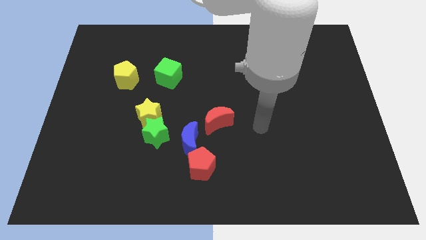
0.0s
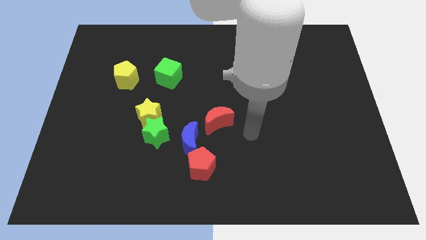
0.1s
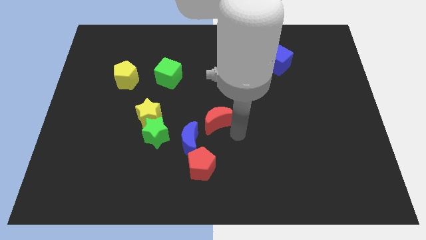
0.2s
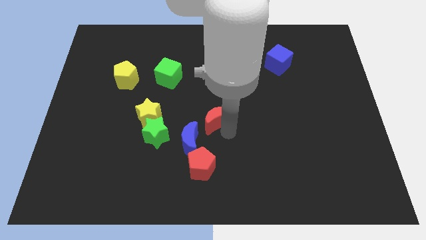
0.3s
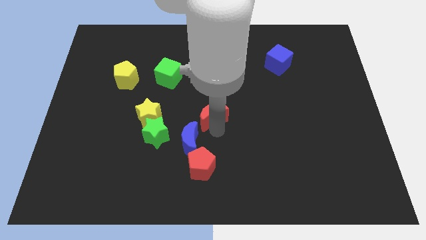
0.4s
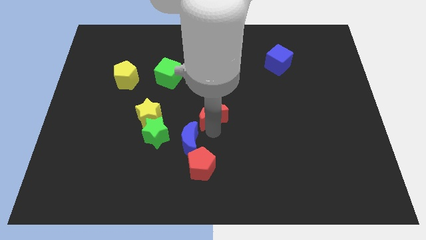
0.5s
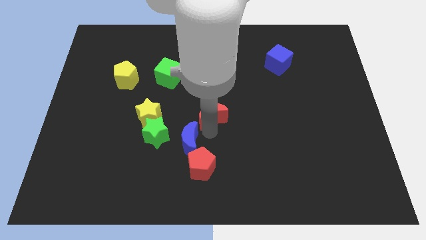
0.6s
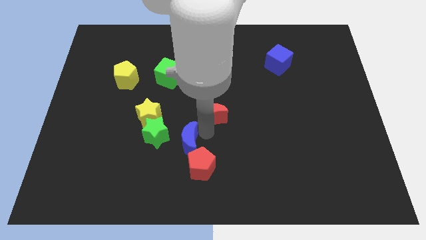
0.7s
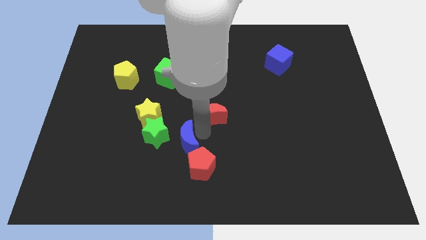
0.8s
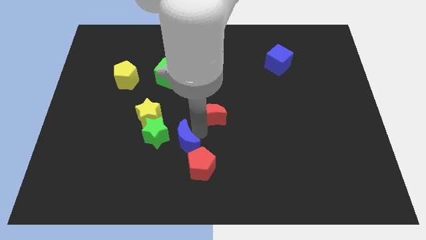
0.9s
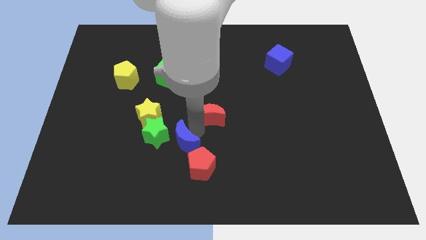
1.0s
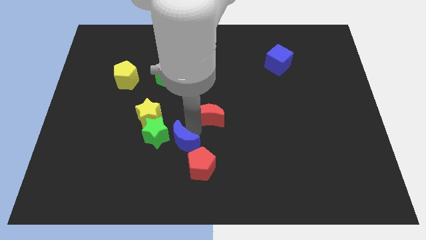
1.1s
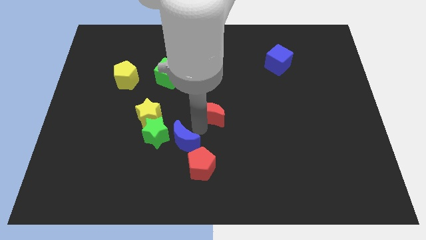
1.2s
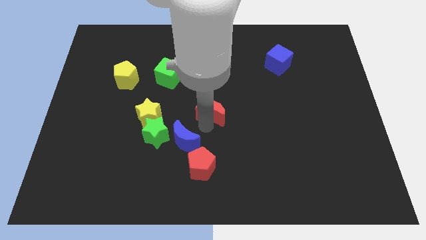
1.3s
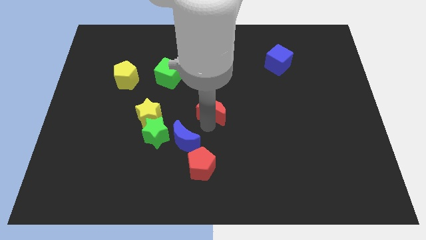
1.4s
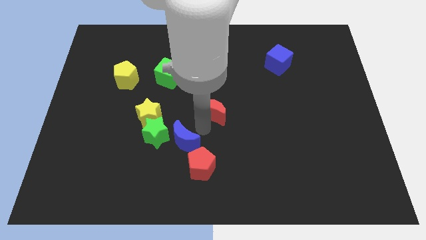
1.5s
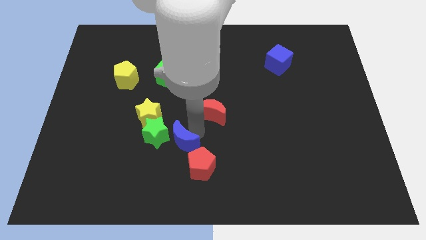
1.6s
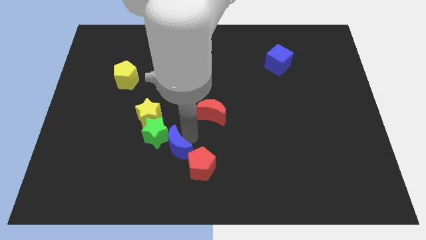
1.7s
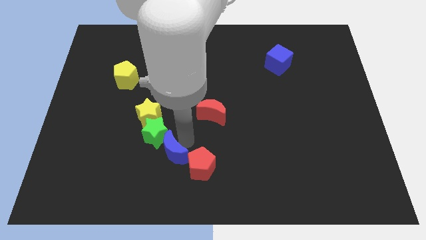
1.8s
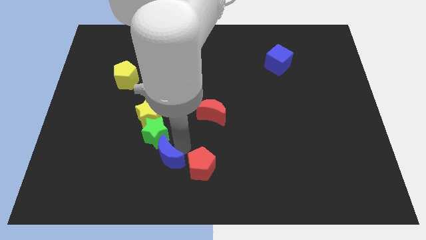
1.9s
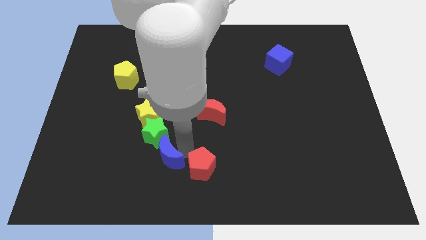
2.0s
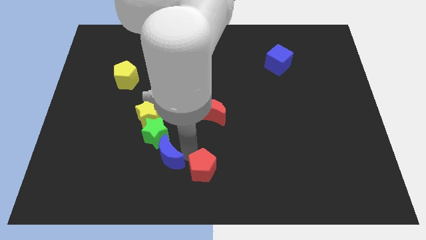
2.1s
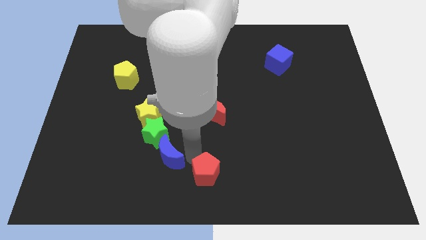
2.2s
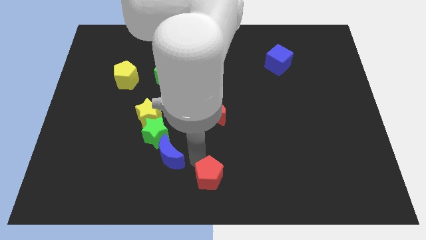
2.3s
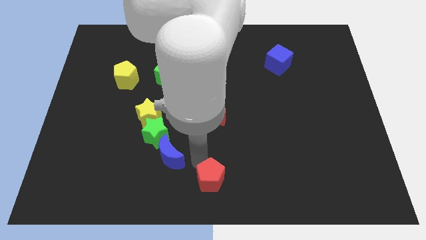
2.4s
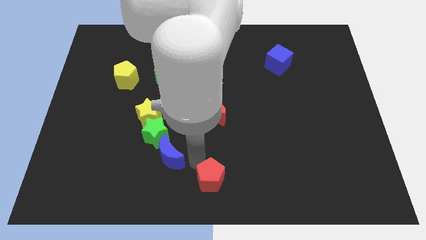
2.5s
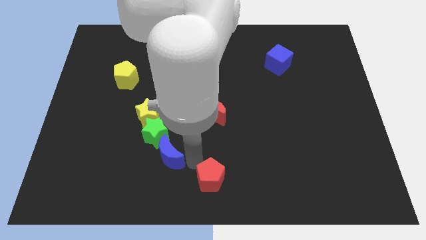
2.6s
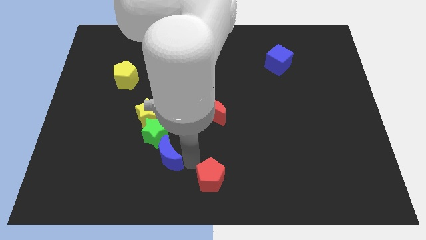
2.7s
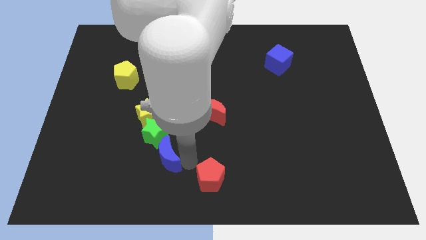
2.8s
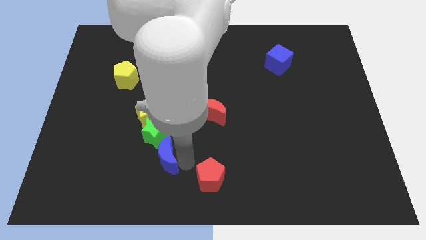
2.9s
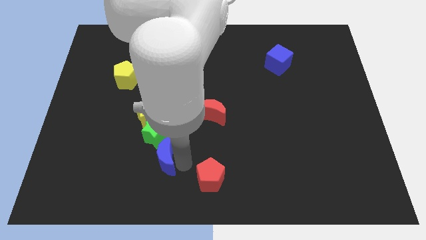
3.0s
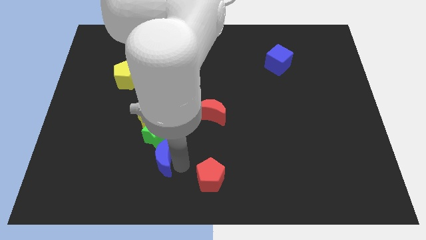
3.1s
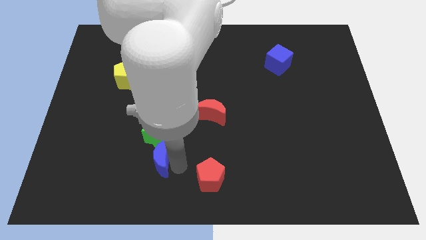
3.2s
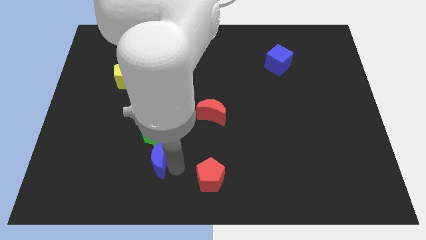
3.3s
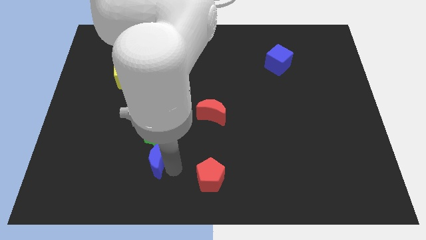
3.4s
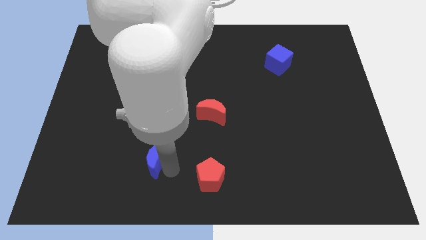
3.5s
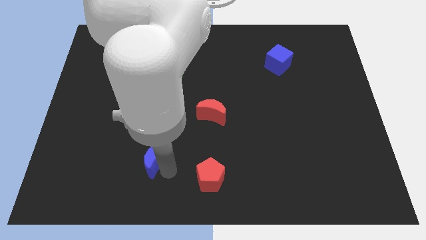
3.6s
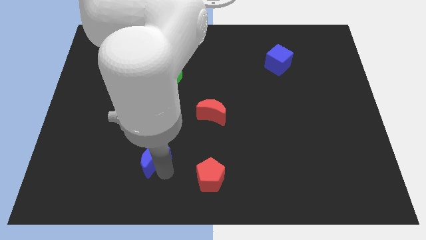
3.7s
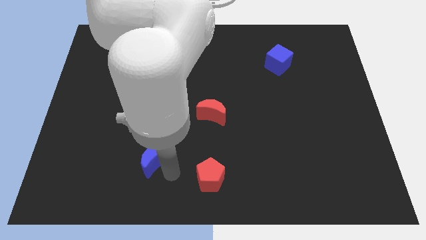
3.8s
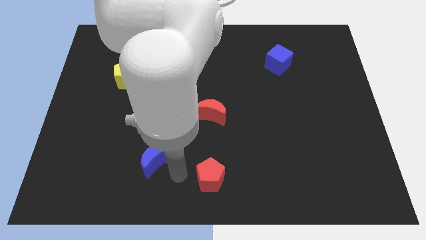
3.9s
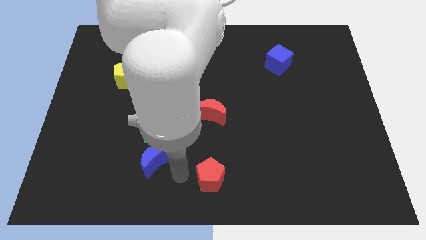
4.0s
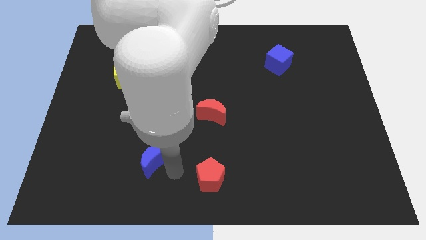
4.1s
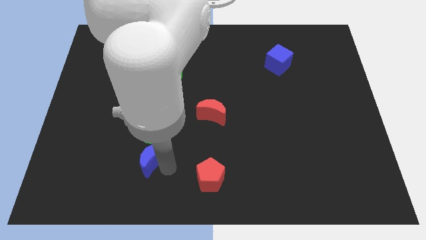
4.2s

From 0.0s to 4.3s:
slide the blue moon a bit left

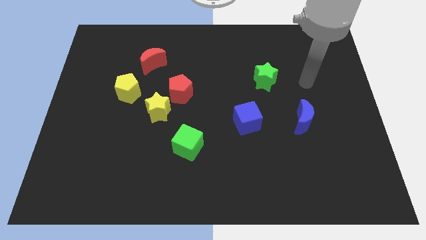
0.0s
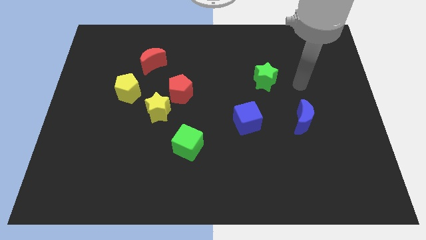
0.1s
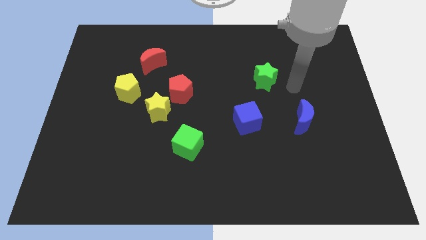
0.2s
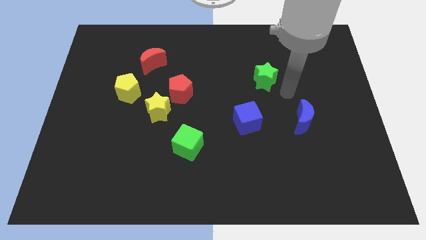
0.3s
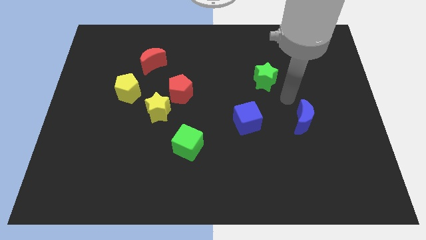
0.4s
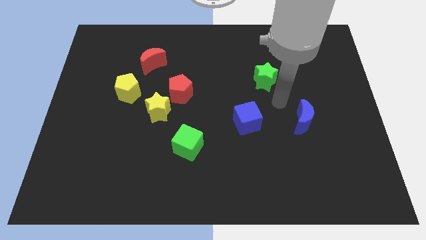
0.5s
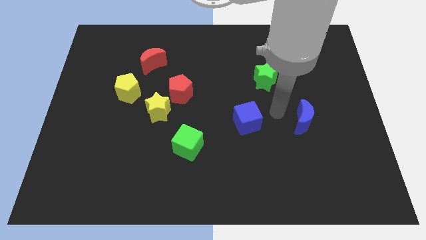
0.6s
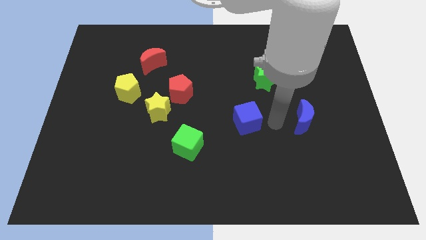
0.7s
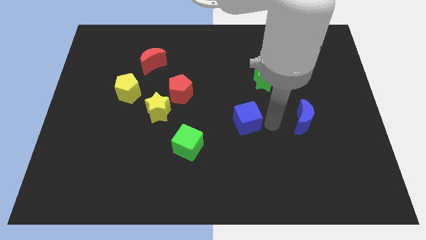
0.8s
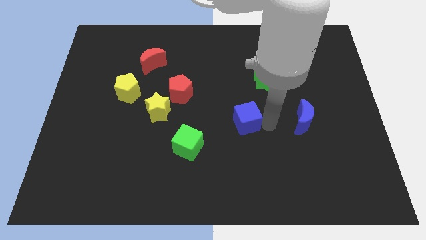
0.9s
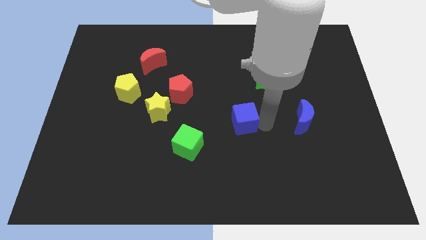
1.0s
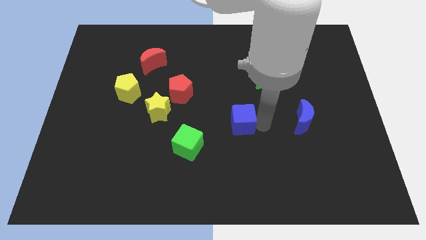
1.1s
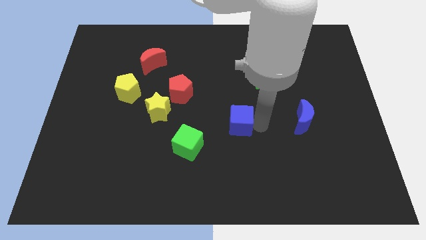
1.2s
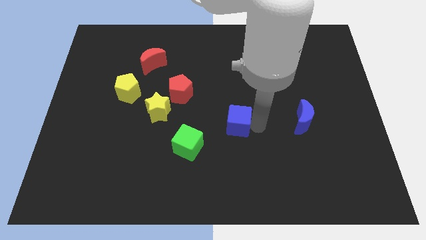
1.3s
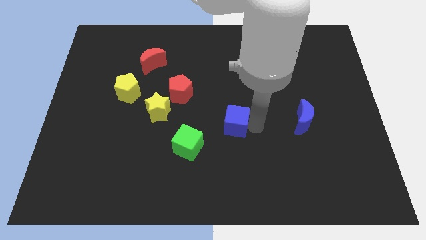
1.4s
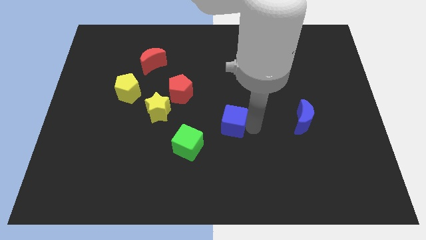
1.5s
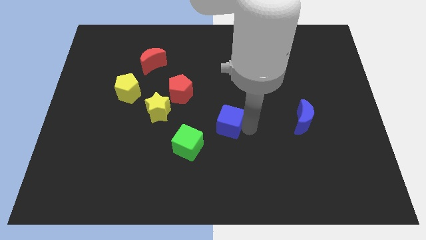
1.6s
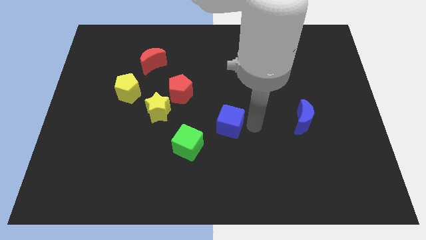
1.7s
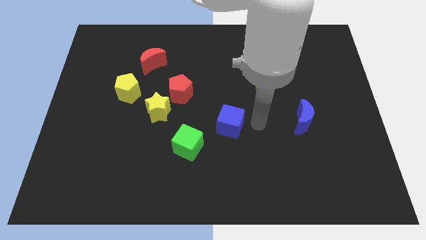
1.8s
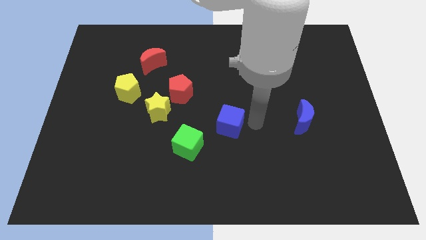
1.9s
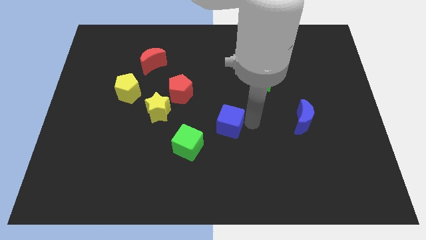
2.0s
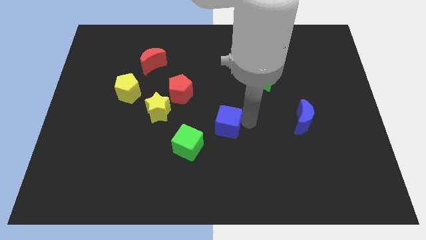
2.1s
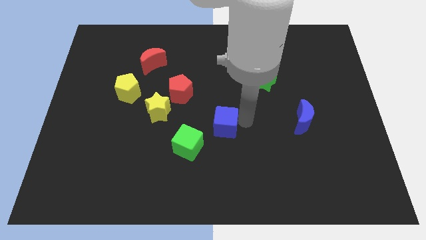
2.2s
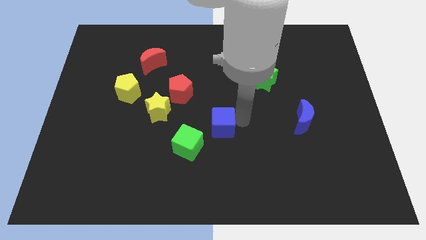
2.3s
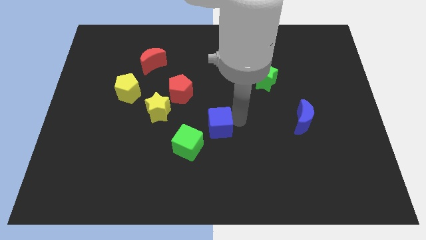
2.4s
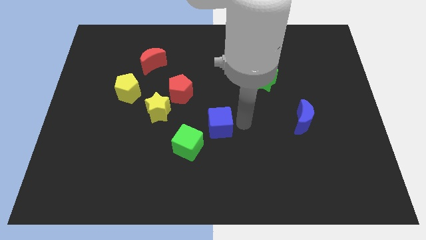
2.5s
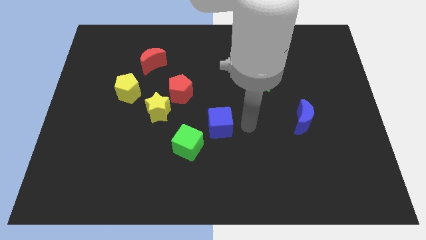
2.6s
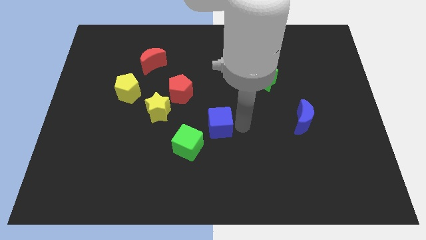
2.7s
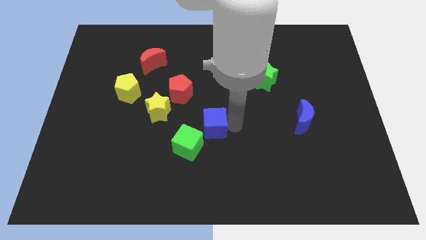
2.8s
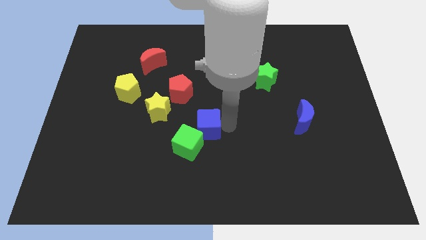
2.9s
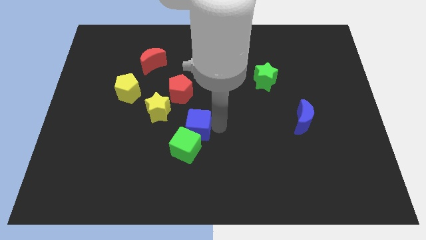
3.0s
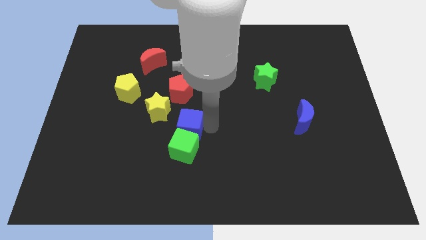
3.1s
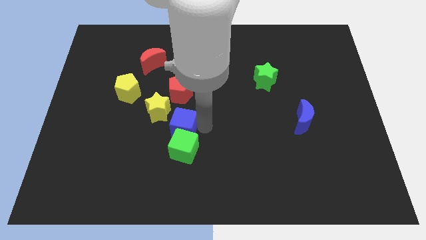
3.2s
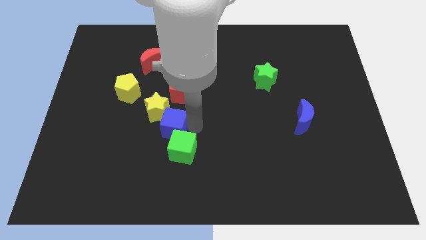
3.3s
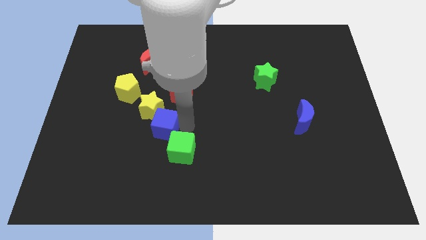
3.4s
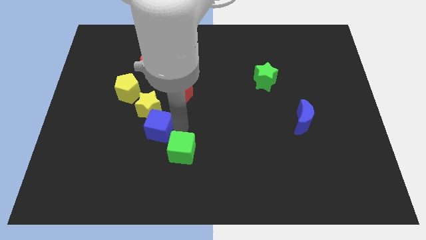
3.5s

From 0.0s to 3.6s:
push the blue cube left
